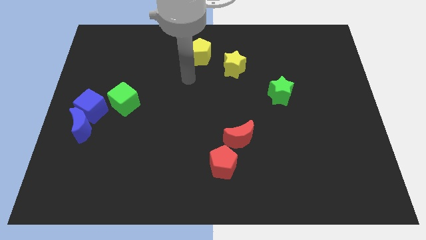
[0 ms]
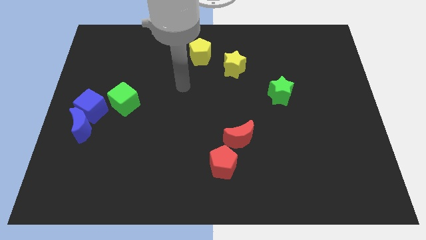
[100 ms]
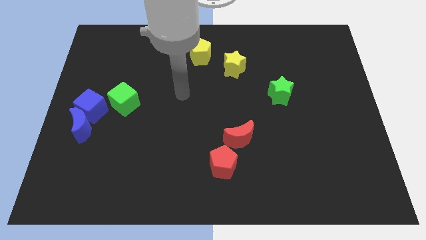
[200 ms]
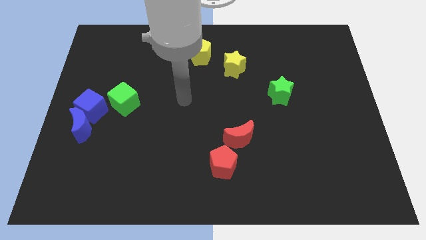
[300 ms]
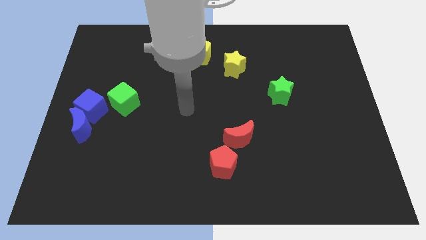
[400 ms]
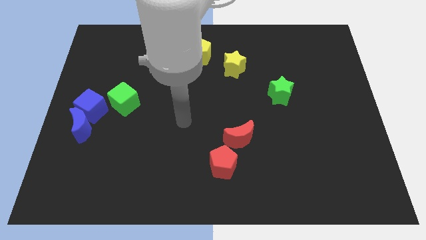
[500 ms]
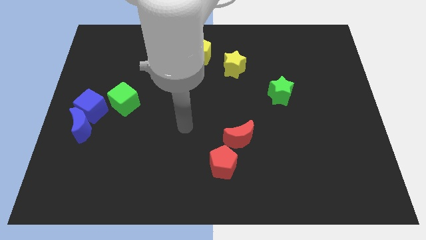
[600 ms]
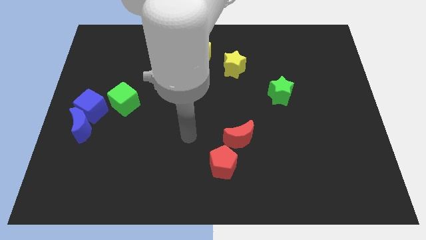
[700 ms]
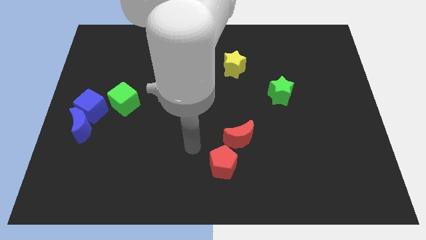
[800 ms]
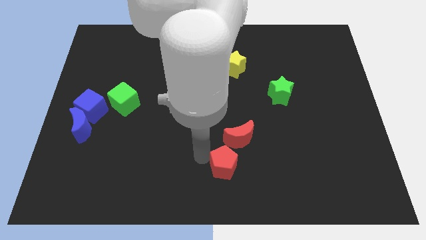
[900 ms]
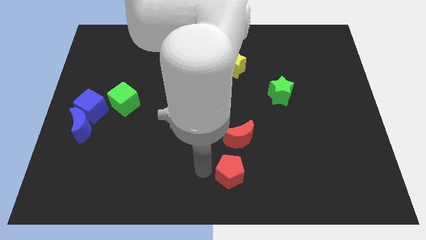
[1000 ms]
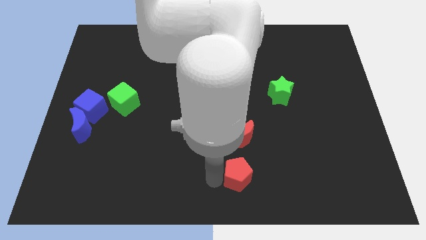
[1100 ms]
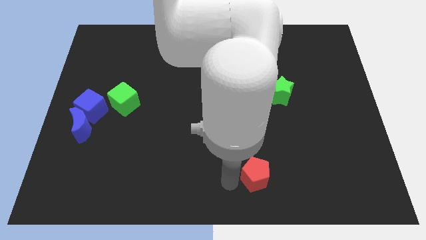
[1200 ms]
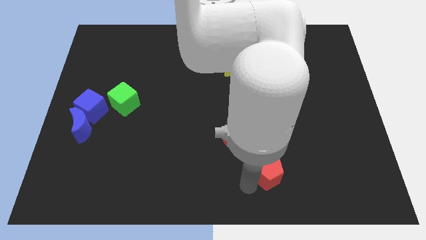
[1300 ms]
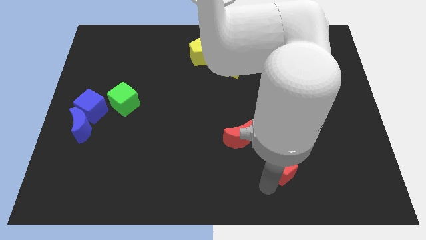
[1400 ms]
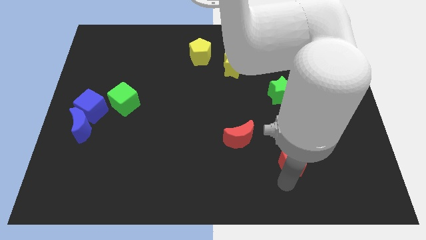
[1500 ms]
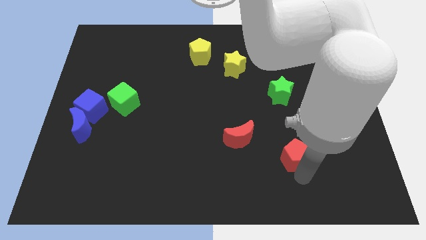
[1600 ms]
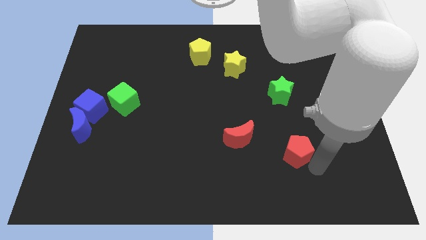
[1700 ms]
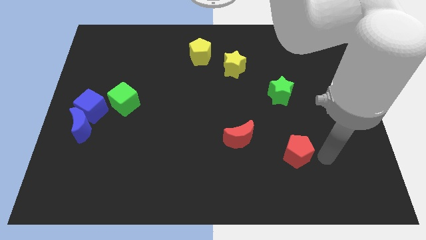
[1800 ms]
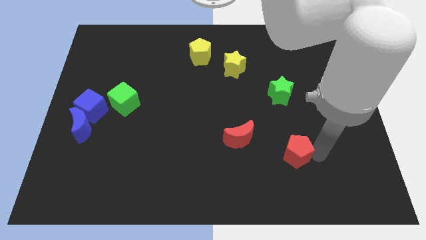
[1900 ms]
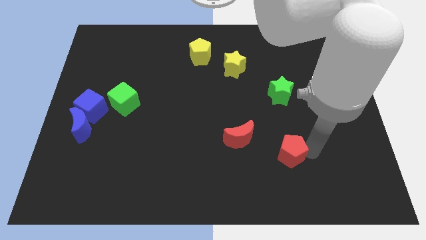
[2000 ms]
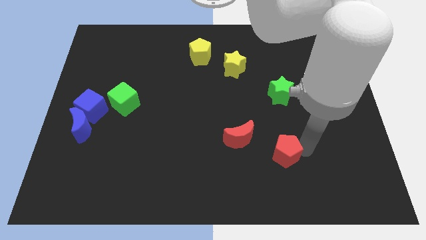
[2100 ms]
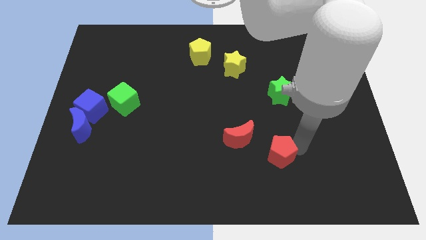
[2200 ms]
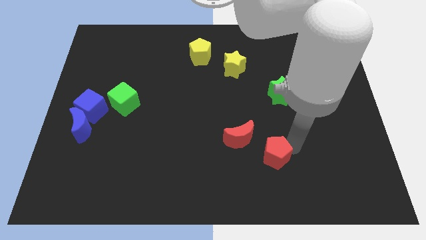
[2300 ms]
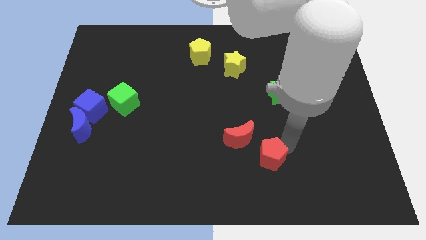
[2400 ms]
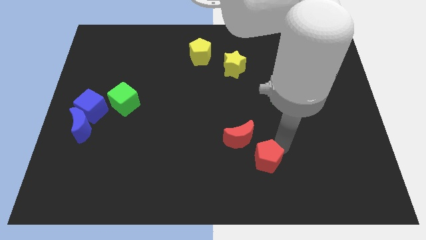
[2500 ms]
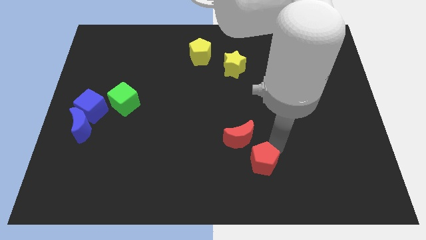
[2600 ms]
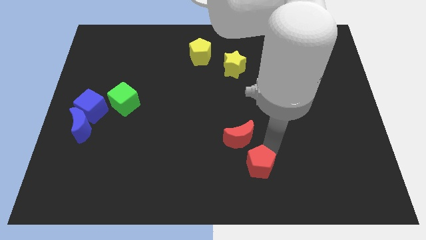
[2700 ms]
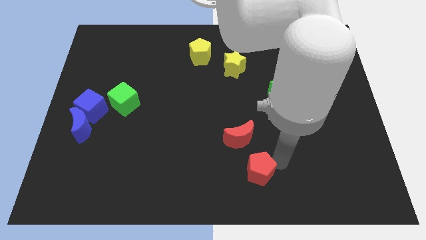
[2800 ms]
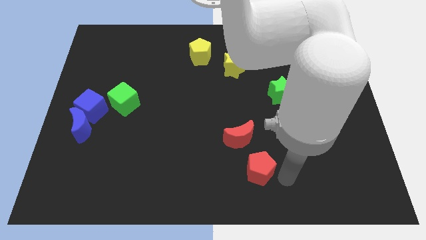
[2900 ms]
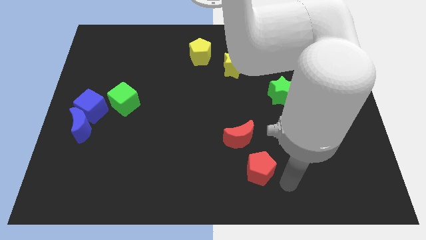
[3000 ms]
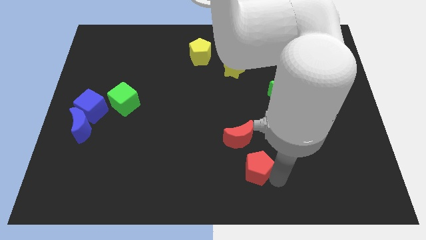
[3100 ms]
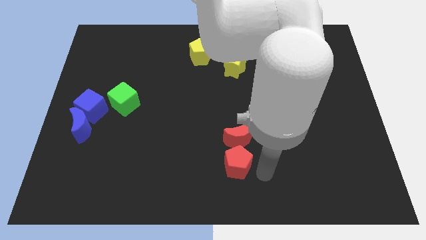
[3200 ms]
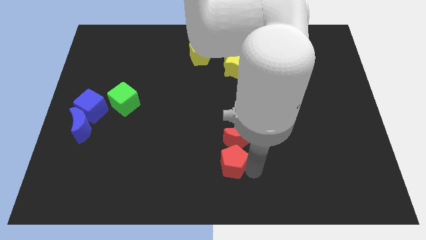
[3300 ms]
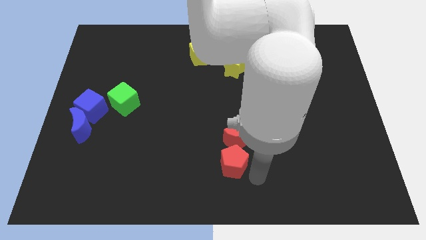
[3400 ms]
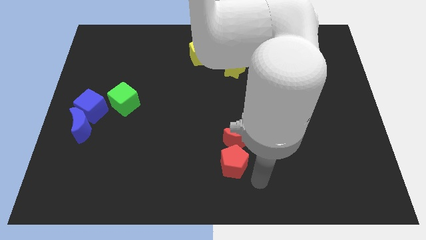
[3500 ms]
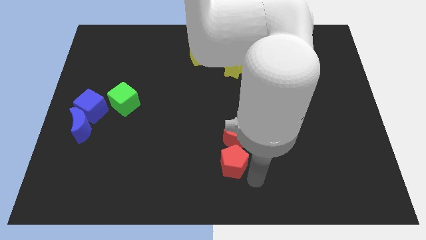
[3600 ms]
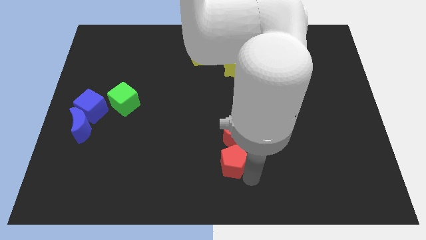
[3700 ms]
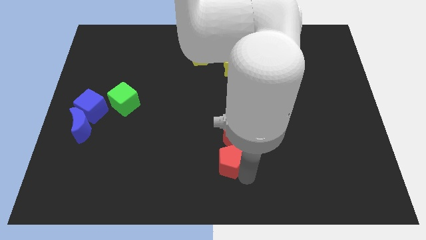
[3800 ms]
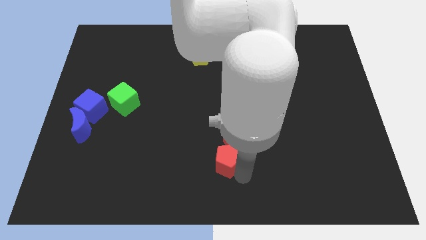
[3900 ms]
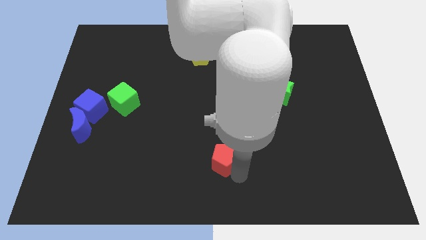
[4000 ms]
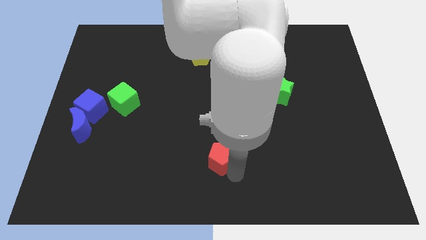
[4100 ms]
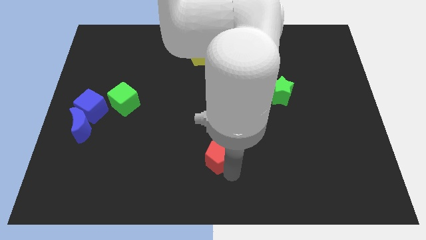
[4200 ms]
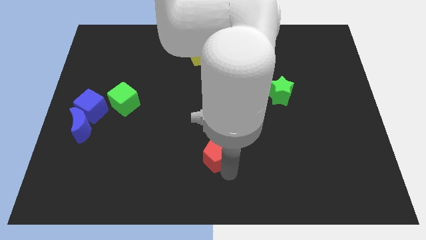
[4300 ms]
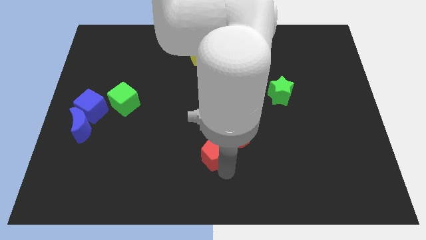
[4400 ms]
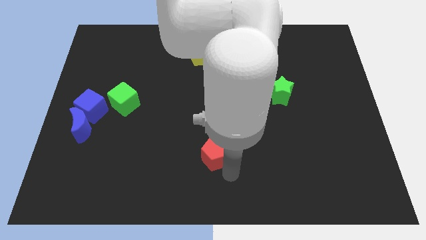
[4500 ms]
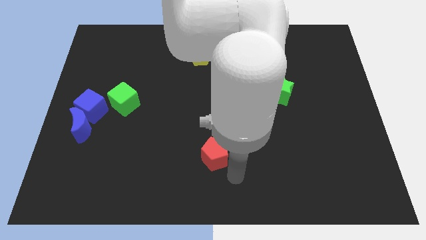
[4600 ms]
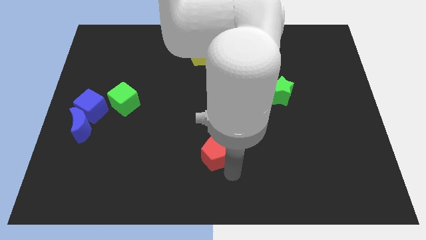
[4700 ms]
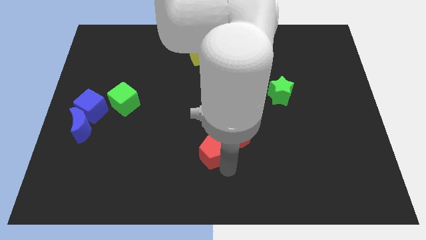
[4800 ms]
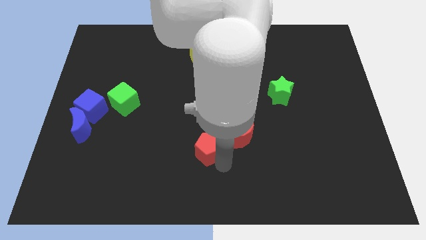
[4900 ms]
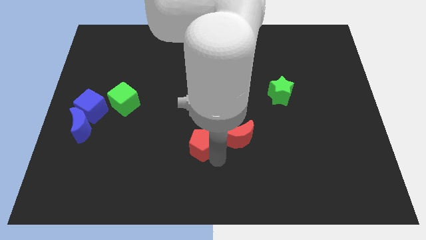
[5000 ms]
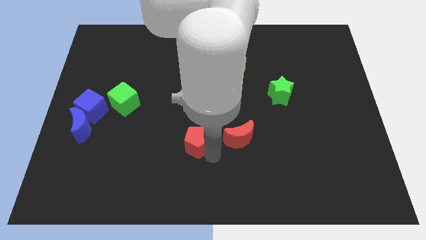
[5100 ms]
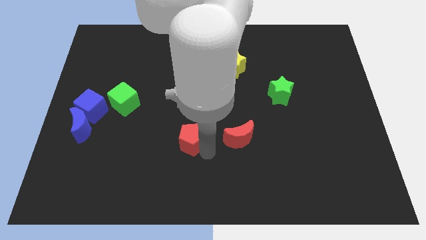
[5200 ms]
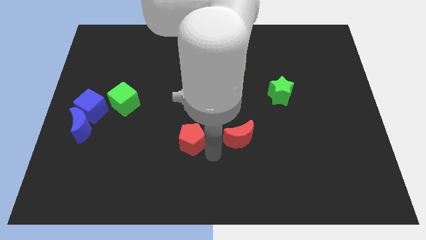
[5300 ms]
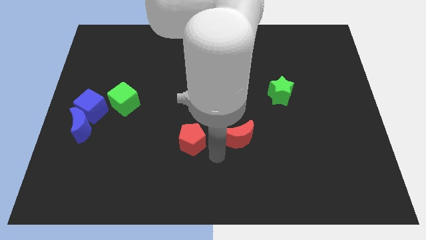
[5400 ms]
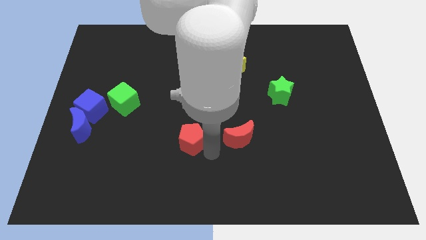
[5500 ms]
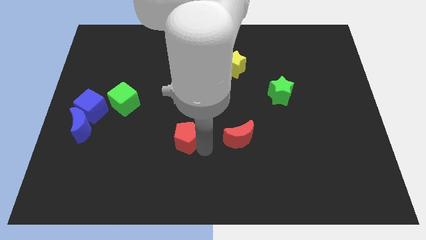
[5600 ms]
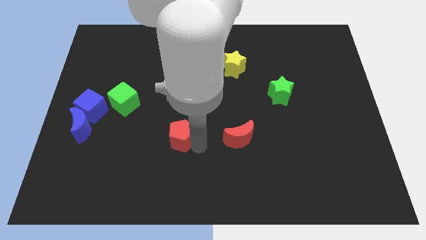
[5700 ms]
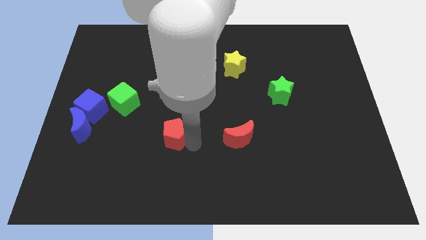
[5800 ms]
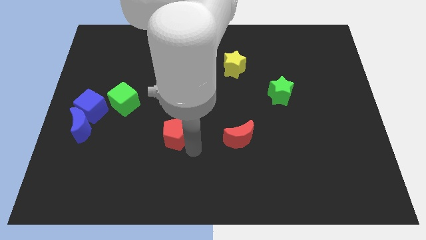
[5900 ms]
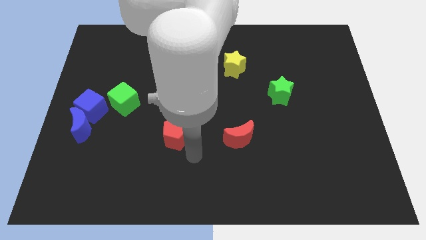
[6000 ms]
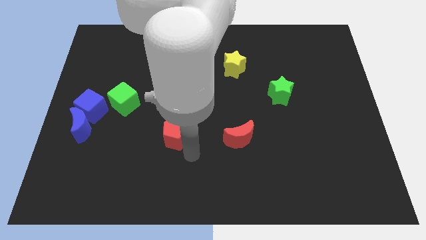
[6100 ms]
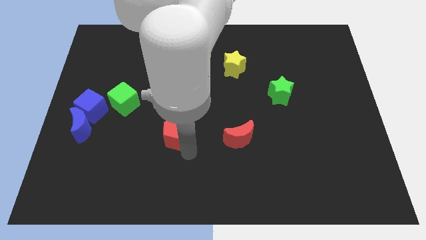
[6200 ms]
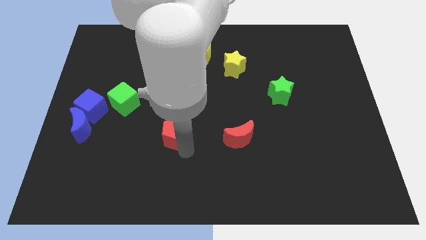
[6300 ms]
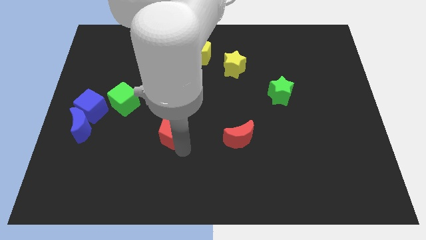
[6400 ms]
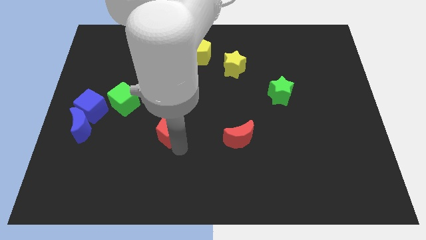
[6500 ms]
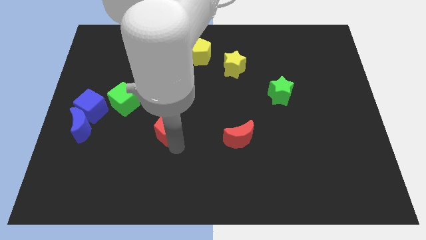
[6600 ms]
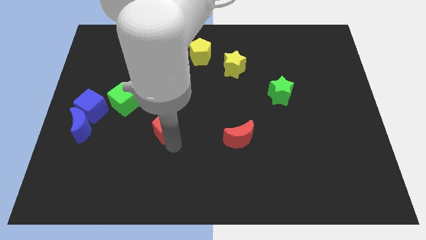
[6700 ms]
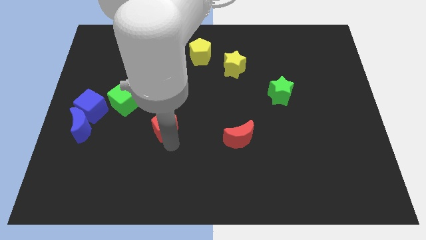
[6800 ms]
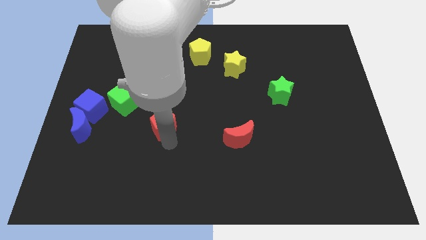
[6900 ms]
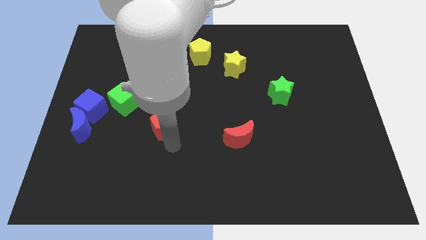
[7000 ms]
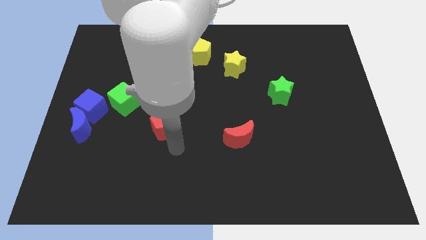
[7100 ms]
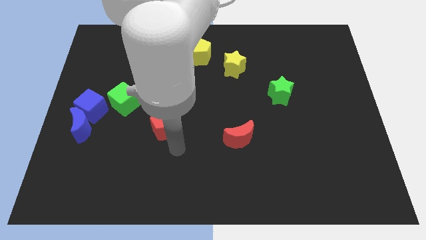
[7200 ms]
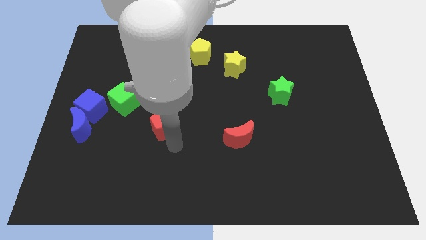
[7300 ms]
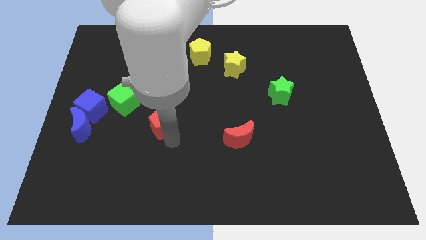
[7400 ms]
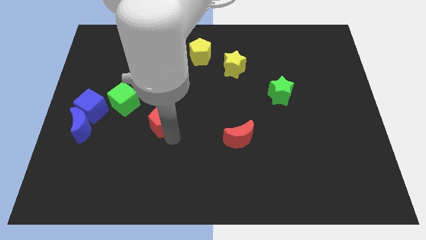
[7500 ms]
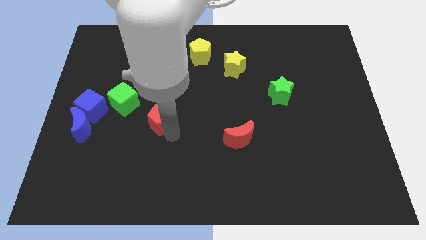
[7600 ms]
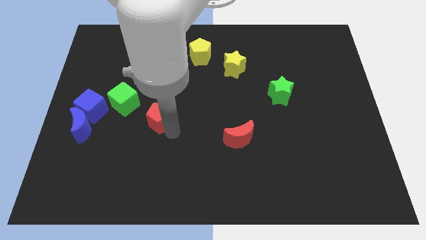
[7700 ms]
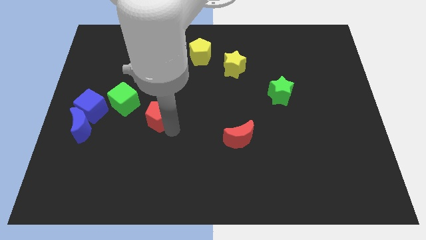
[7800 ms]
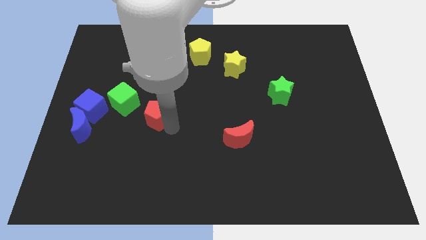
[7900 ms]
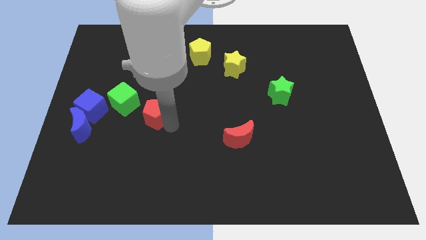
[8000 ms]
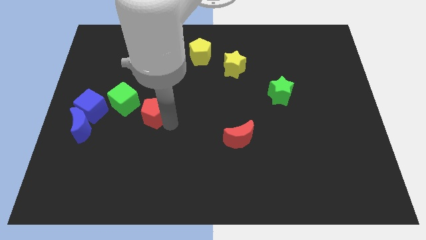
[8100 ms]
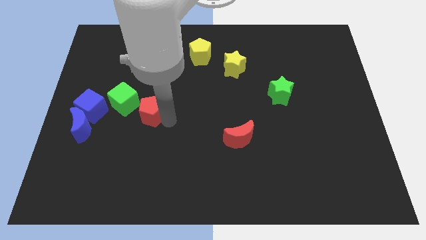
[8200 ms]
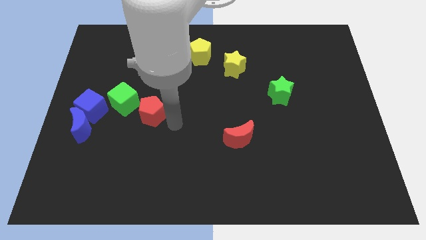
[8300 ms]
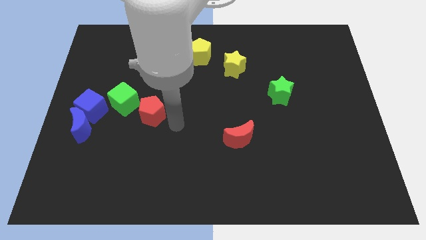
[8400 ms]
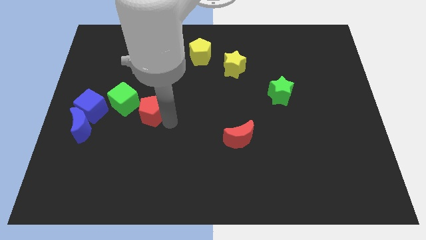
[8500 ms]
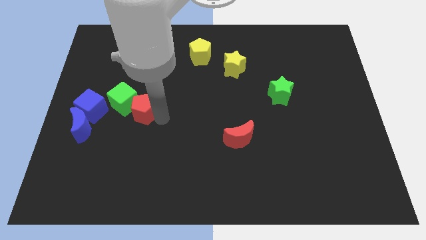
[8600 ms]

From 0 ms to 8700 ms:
put the red pentagon towards the green cube
